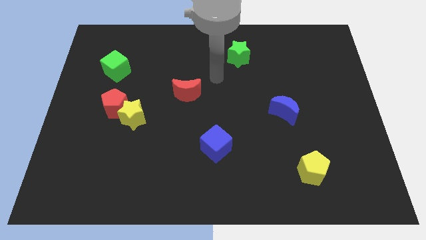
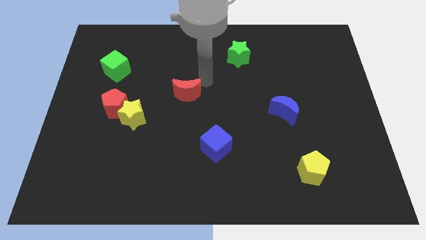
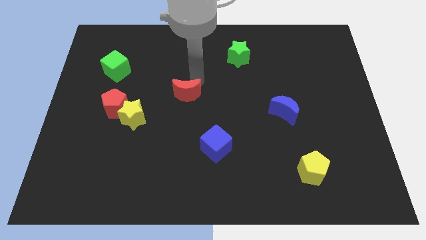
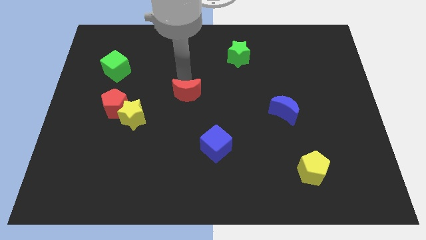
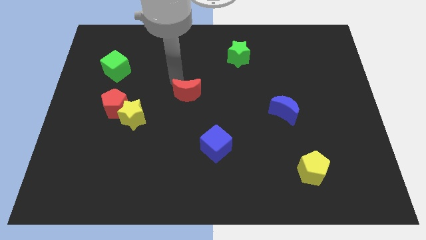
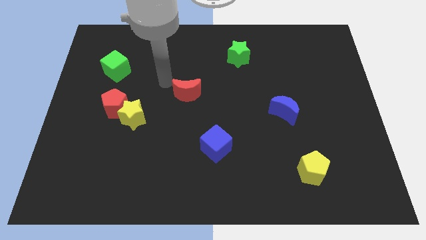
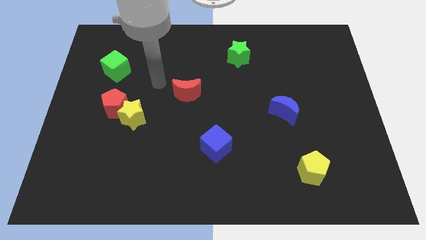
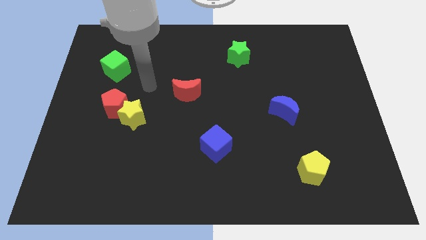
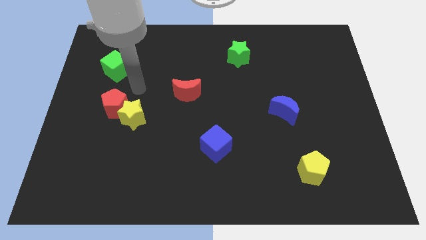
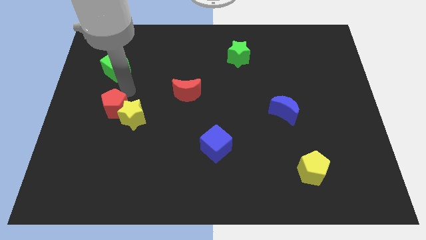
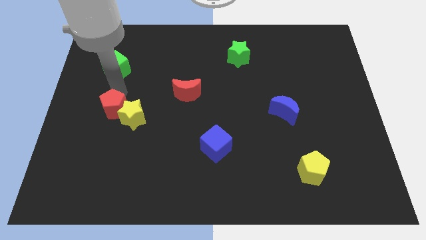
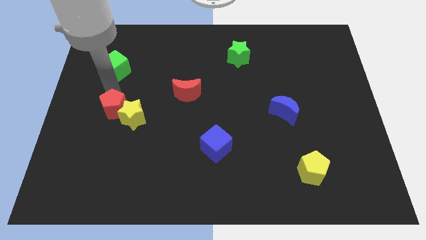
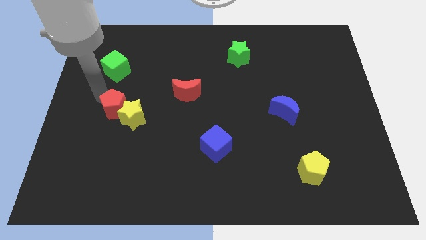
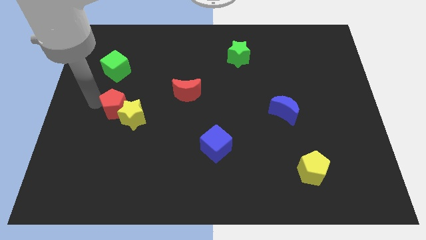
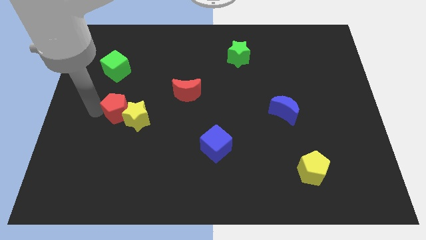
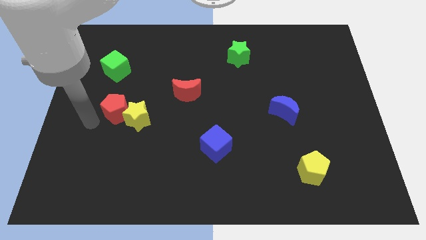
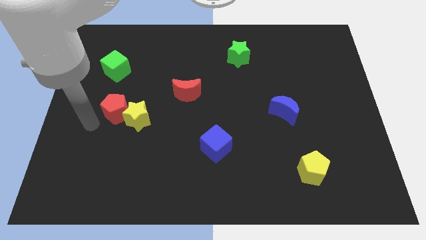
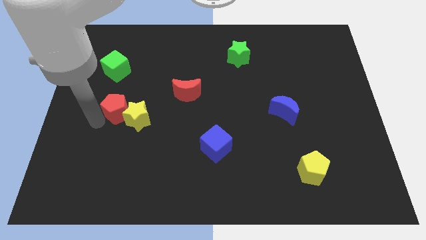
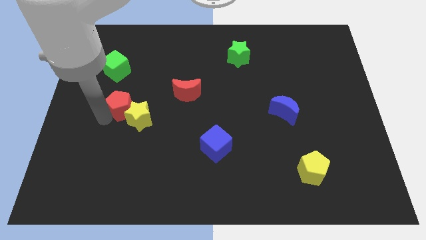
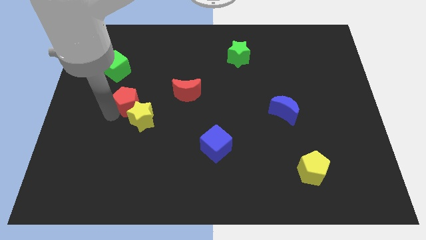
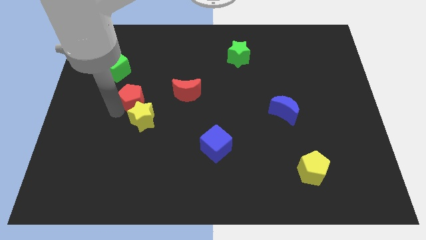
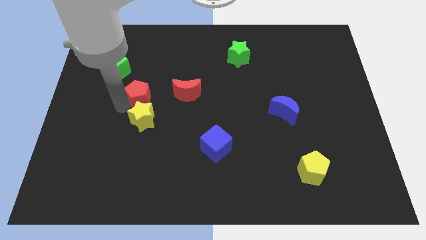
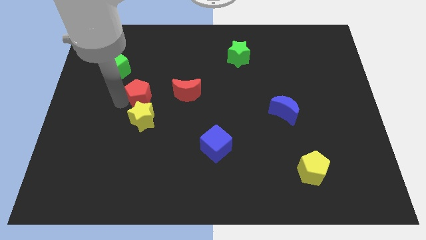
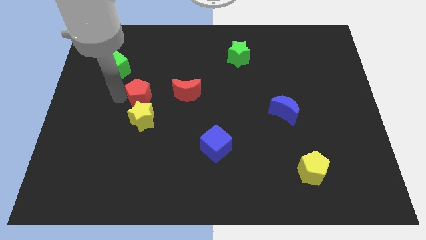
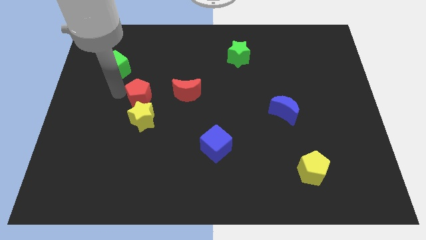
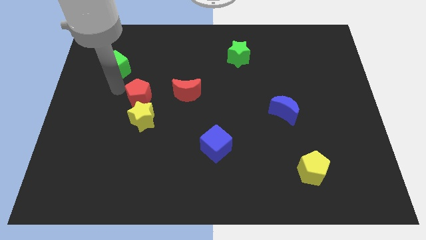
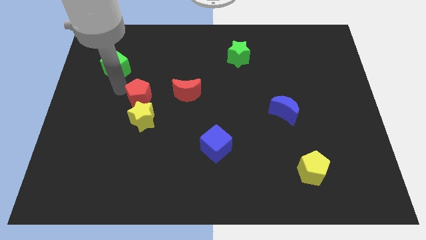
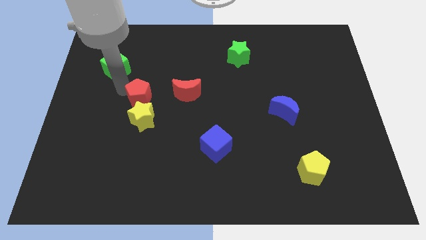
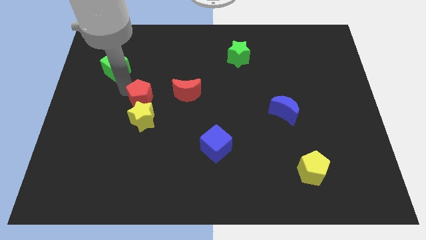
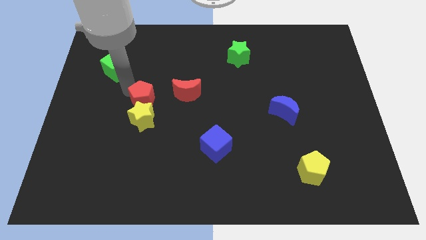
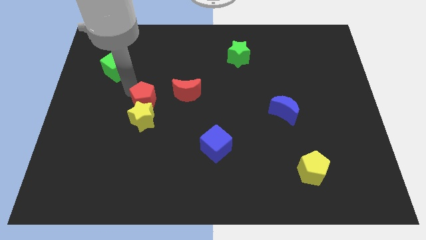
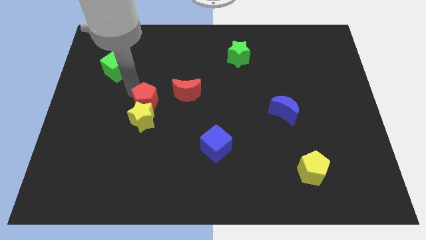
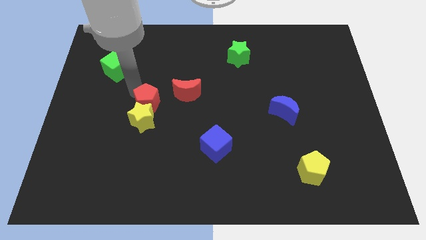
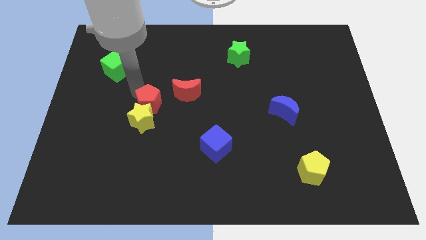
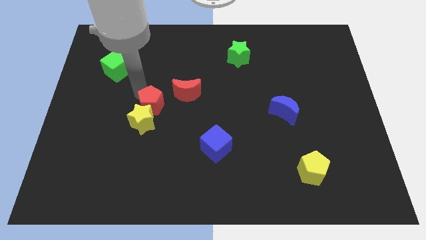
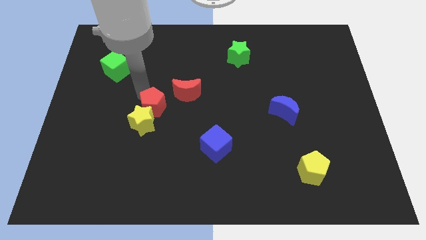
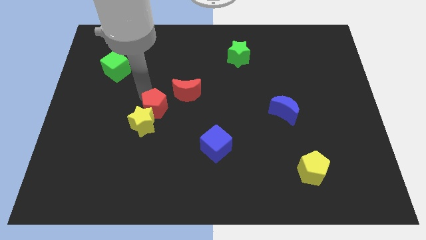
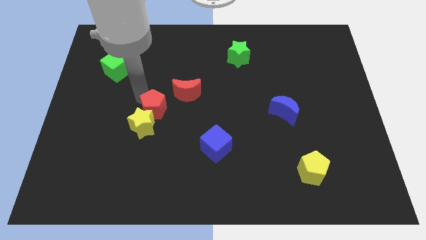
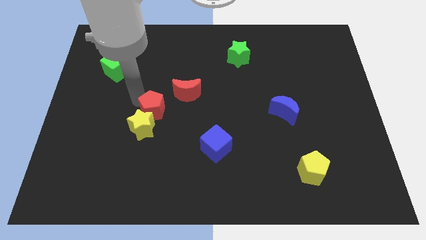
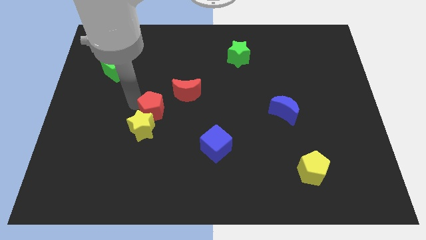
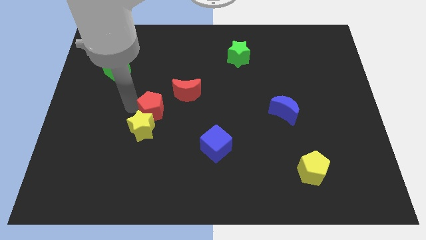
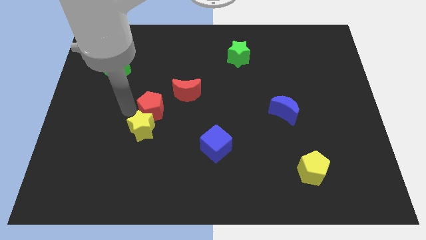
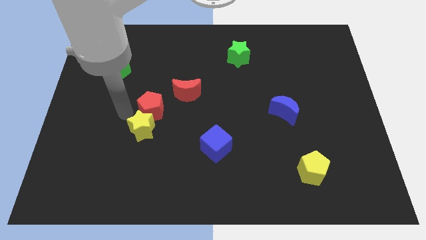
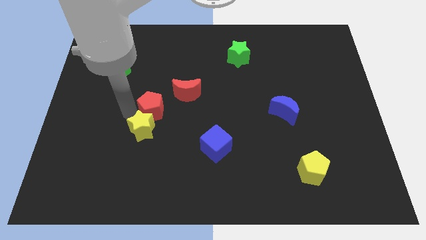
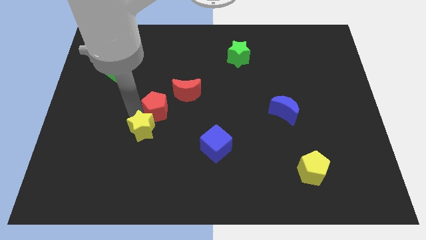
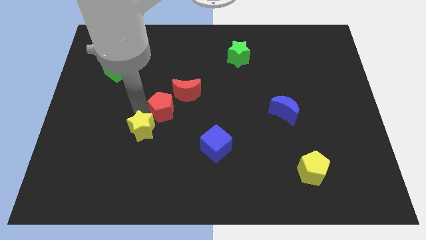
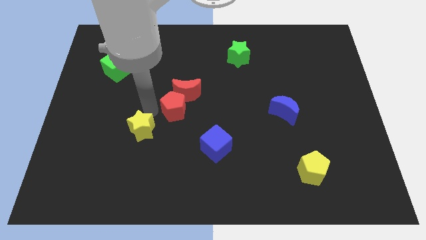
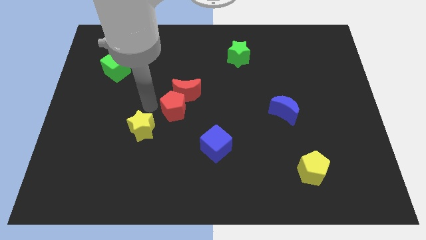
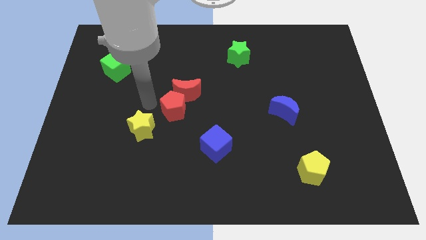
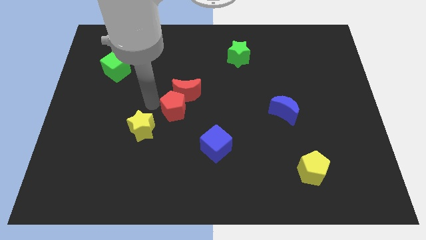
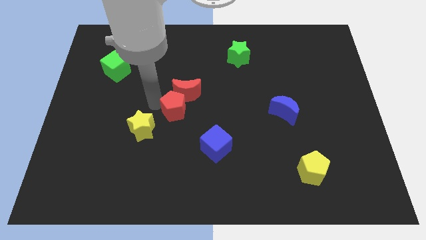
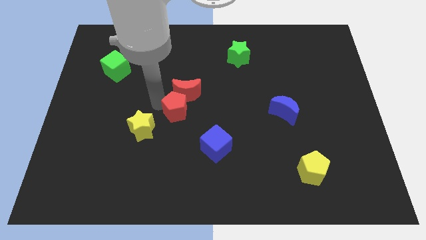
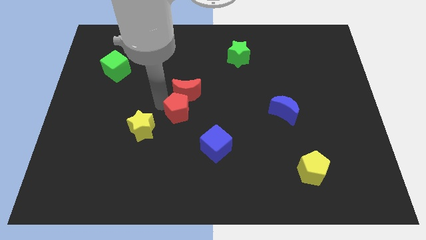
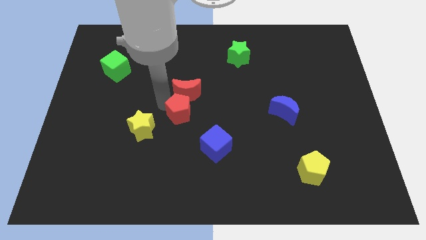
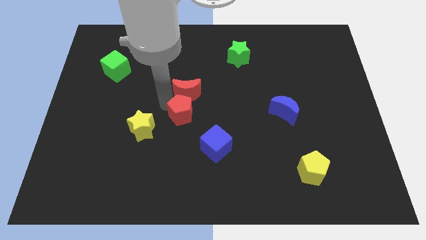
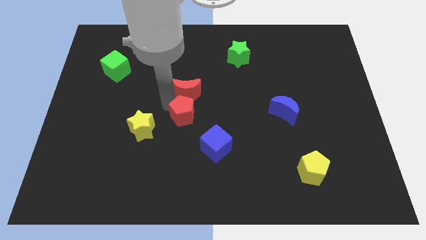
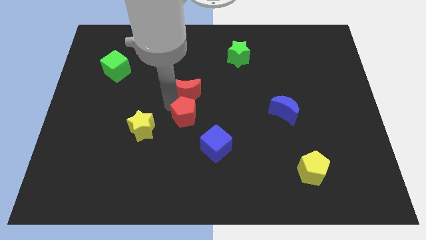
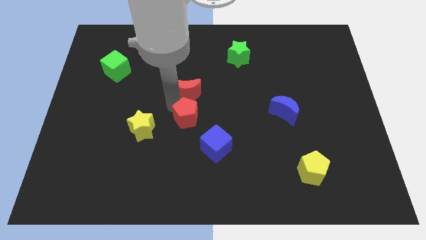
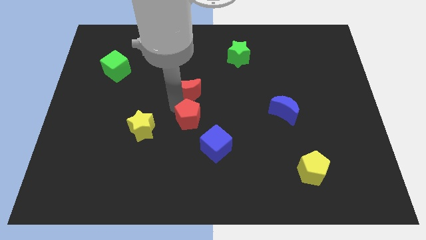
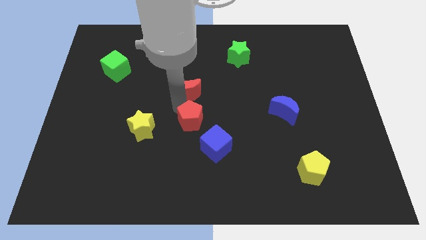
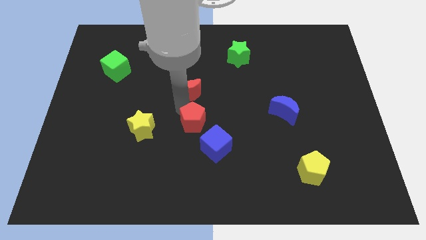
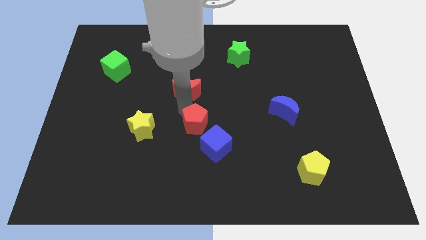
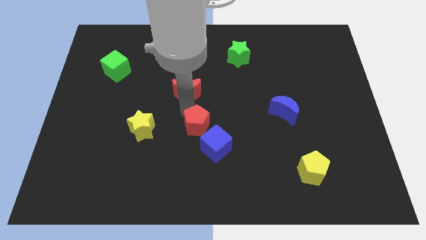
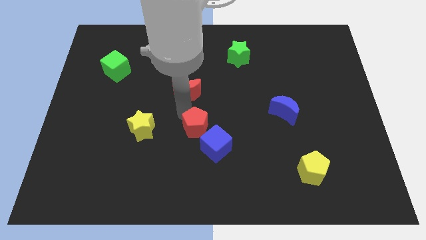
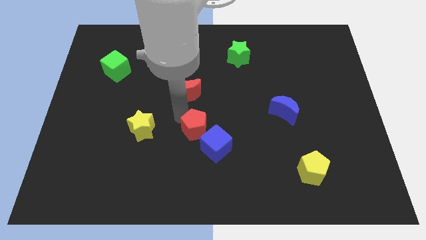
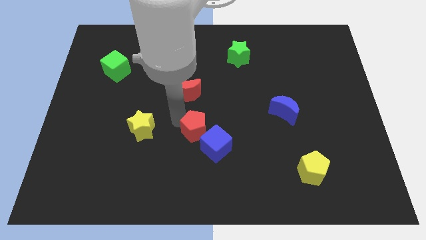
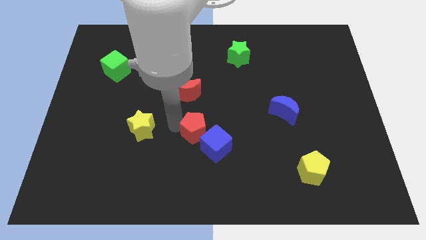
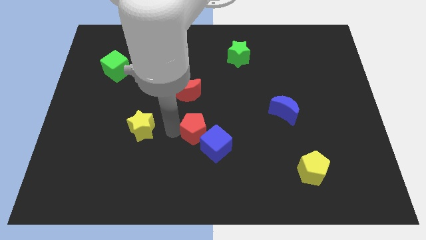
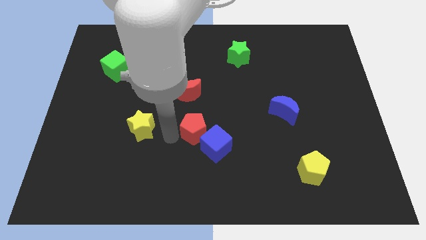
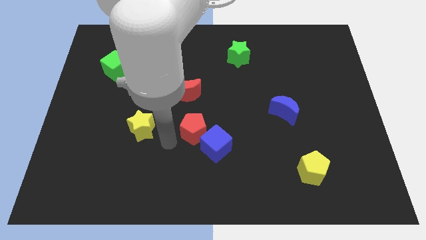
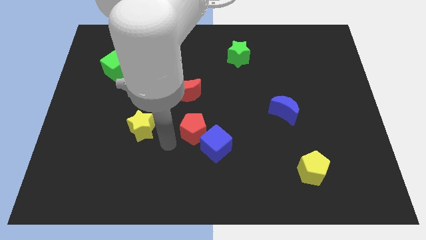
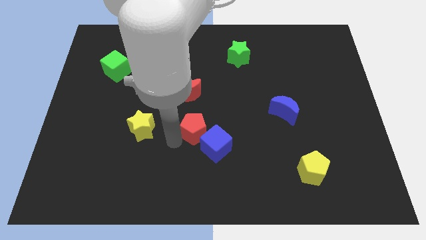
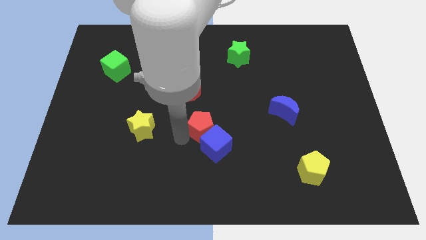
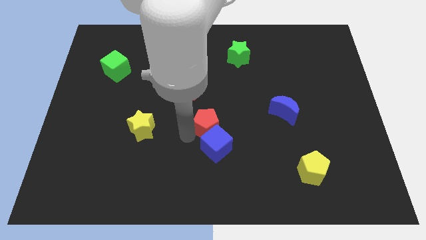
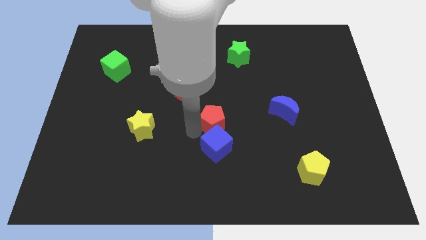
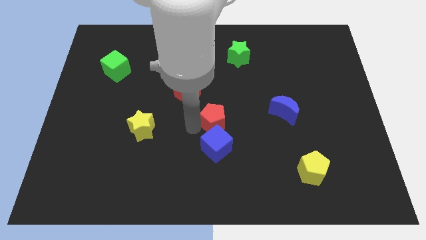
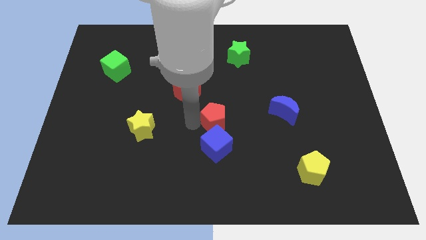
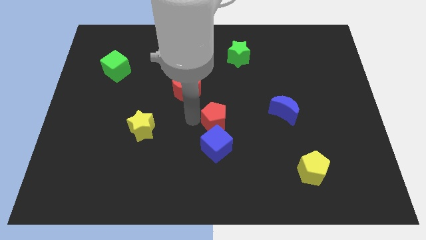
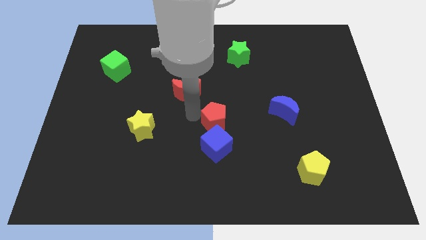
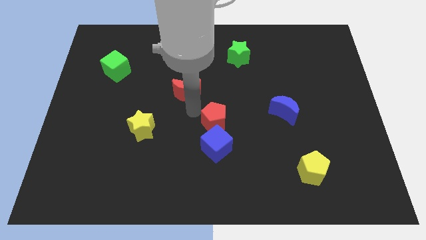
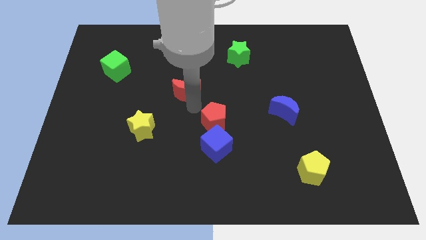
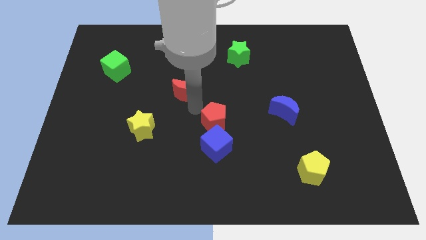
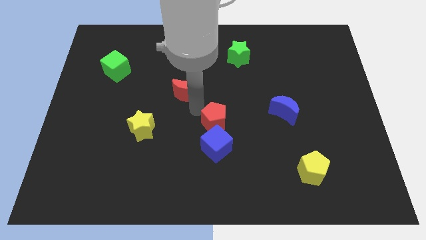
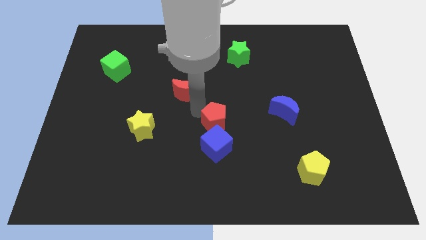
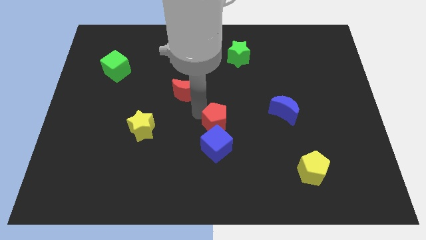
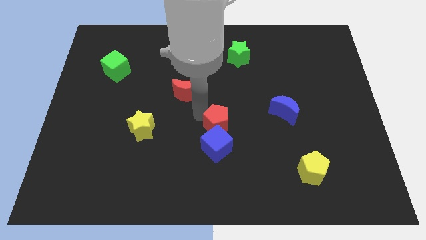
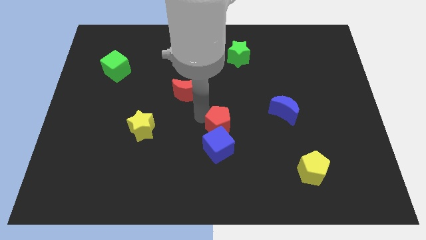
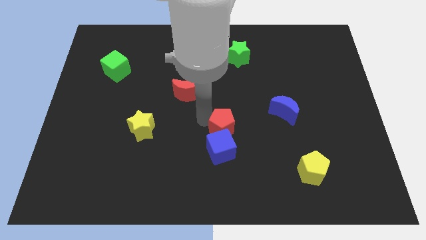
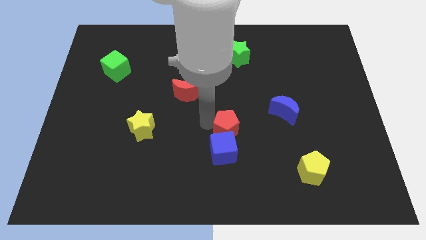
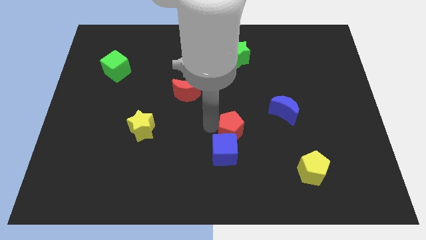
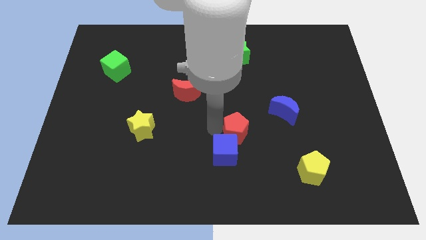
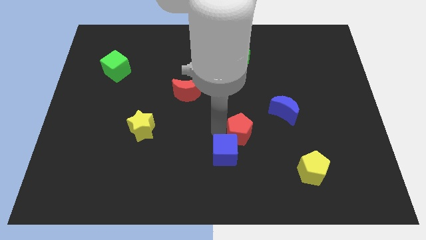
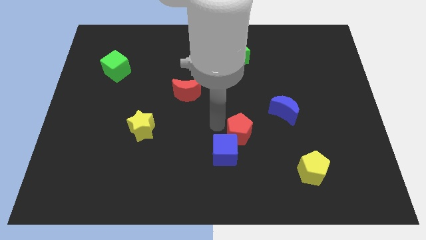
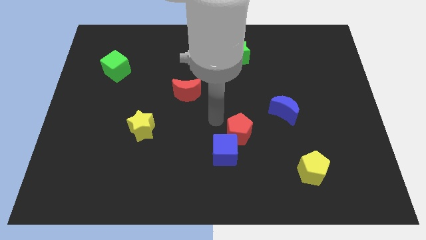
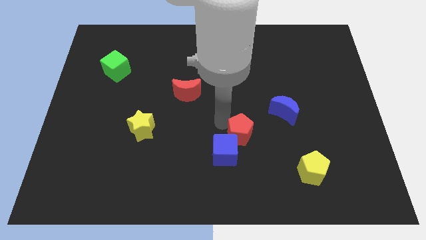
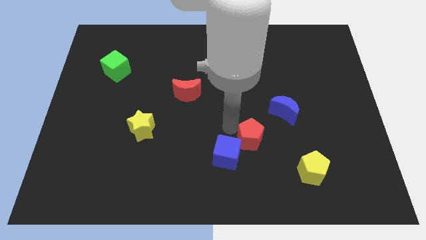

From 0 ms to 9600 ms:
move the red pentagon to the right side of the blue cube
